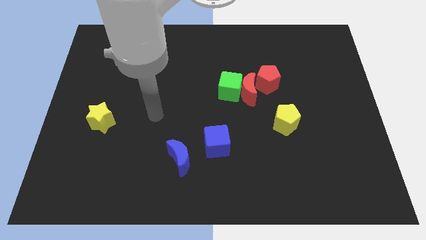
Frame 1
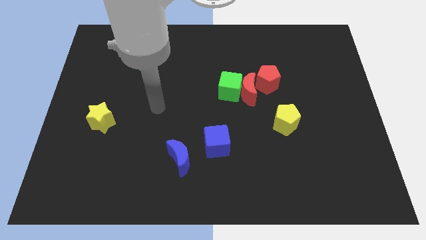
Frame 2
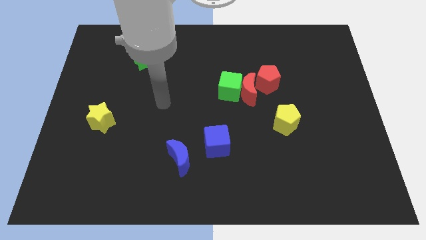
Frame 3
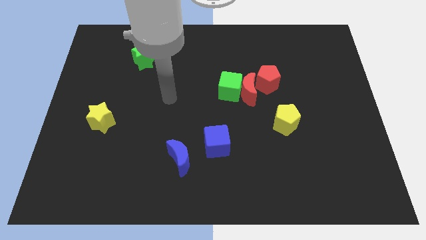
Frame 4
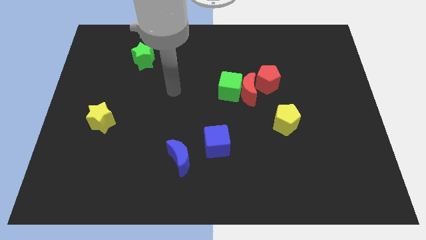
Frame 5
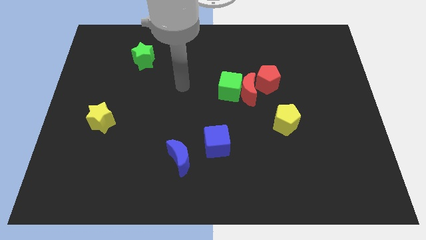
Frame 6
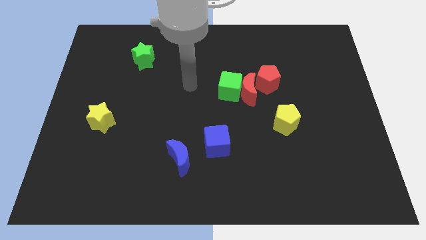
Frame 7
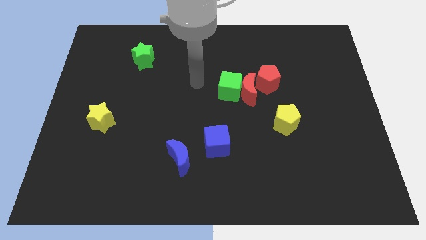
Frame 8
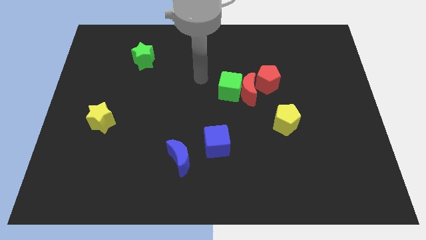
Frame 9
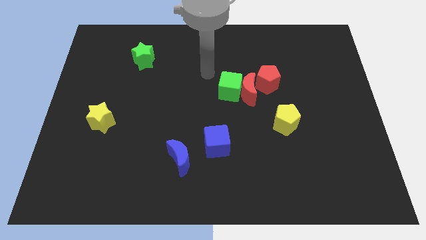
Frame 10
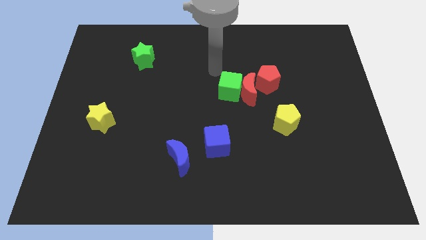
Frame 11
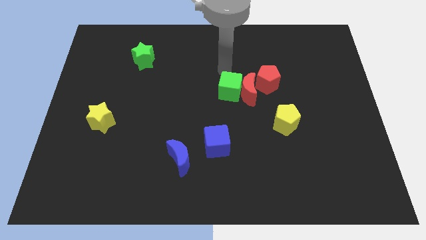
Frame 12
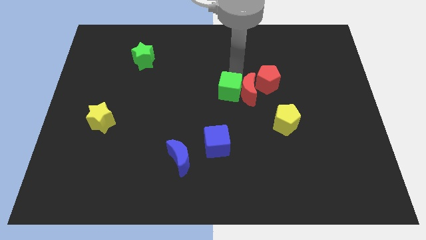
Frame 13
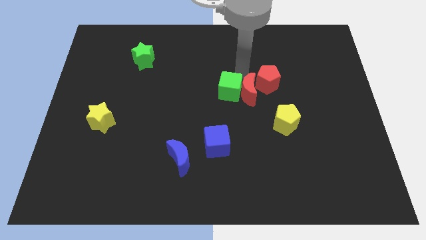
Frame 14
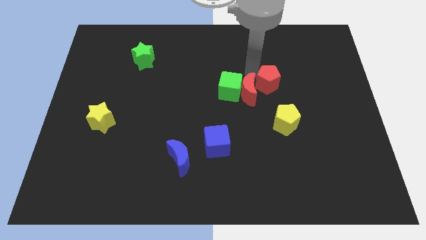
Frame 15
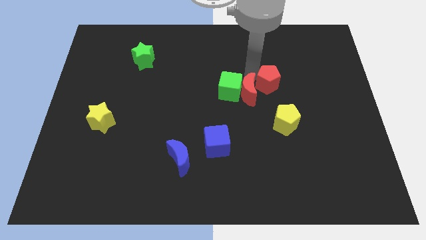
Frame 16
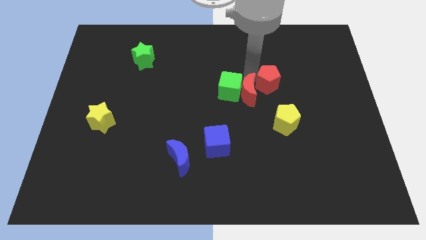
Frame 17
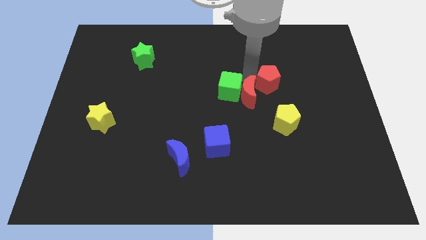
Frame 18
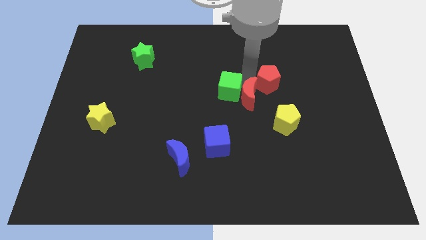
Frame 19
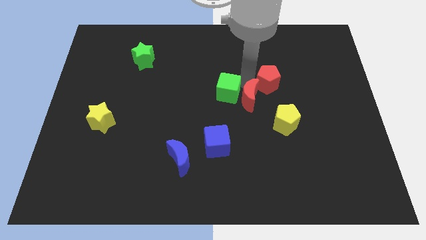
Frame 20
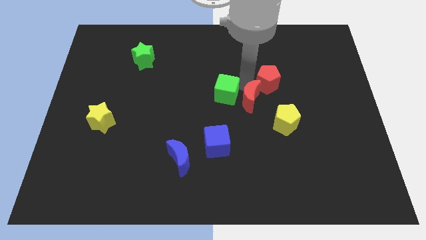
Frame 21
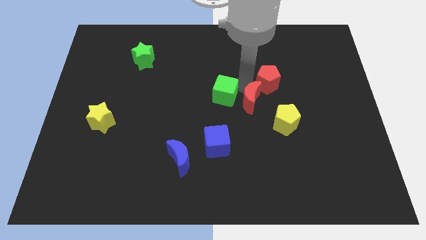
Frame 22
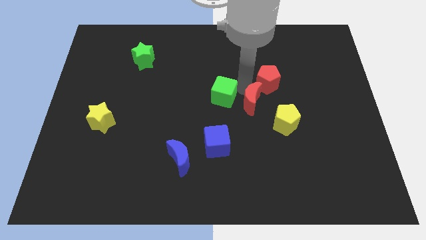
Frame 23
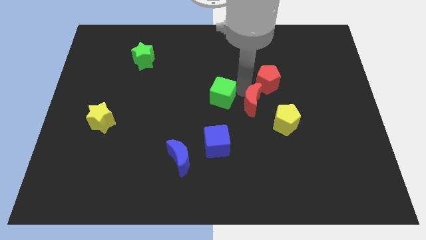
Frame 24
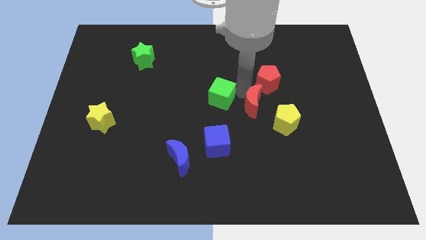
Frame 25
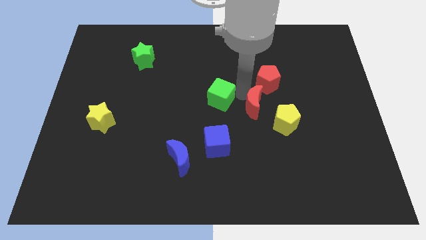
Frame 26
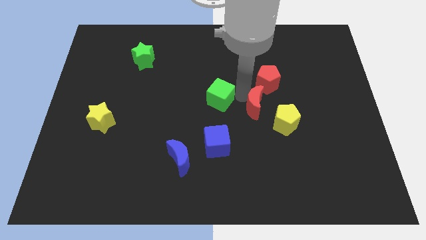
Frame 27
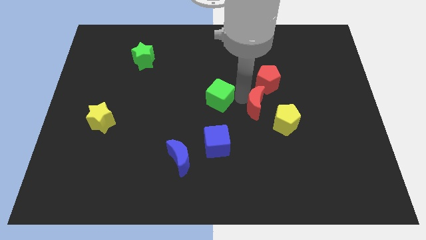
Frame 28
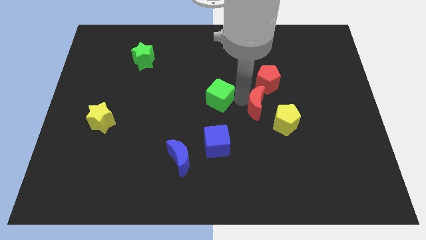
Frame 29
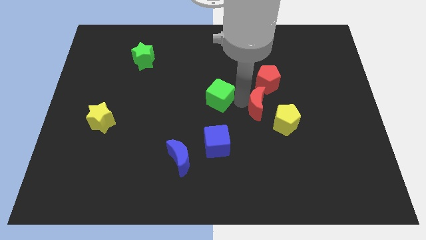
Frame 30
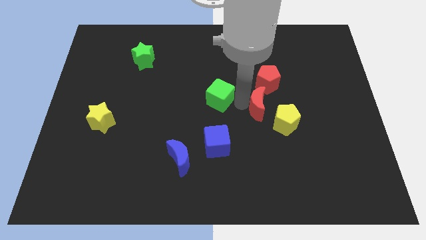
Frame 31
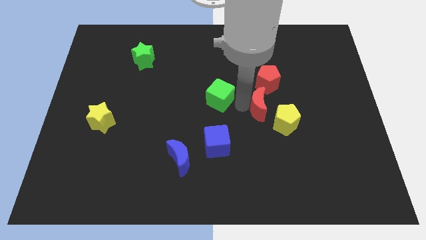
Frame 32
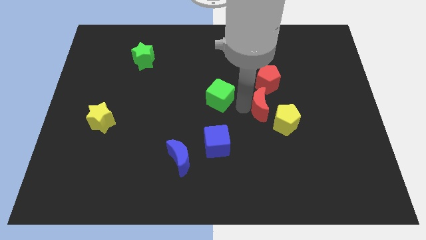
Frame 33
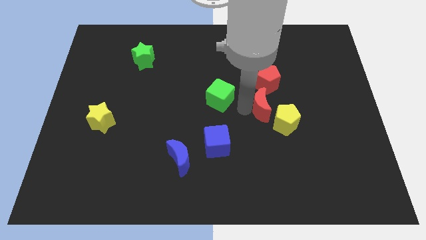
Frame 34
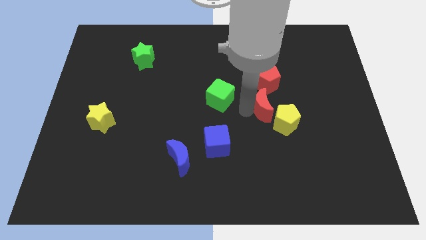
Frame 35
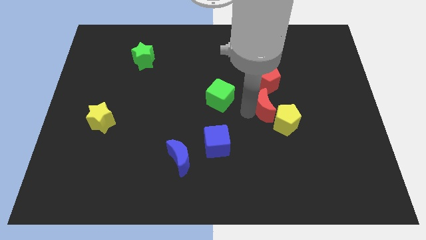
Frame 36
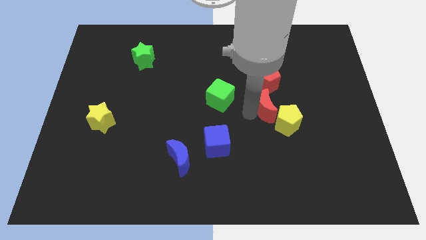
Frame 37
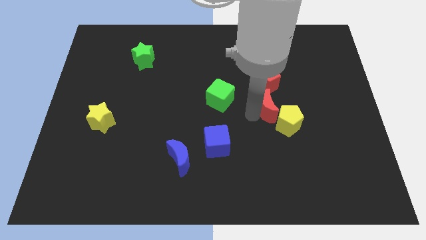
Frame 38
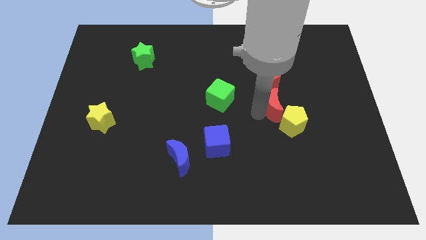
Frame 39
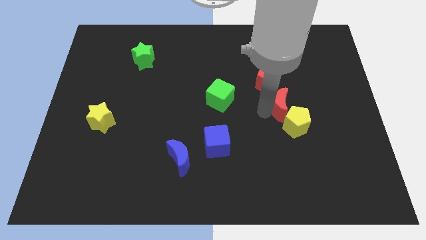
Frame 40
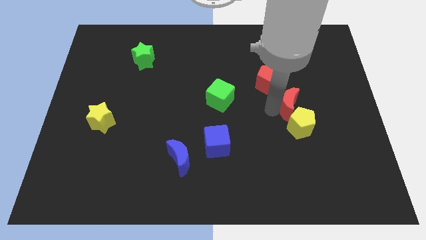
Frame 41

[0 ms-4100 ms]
move the red moon away from the green cube and red pentagon

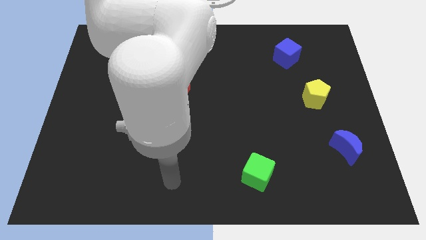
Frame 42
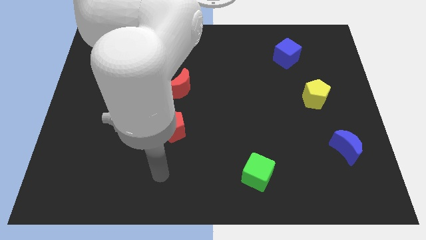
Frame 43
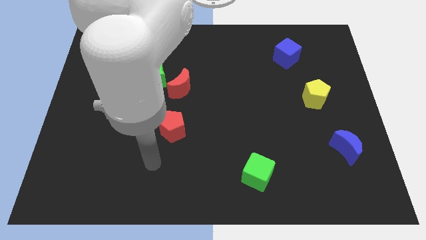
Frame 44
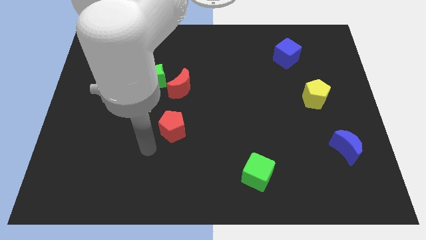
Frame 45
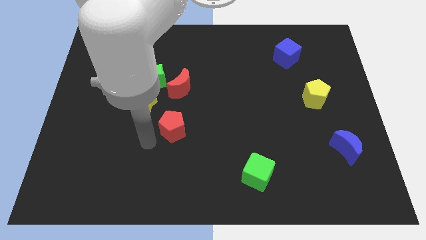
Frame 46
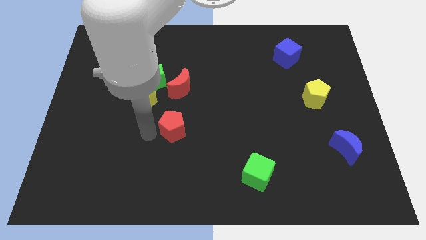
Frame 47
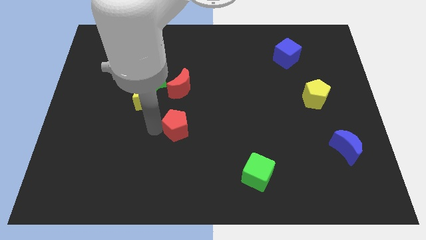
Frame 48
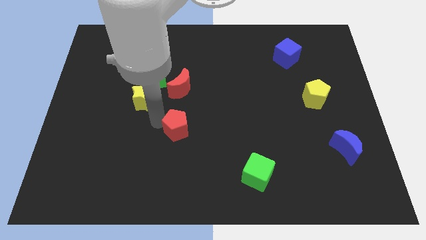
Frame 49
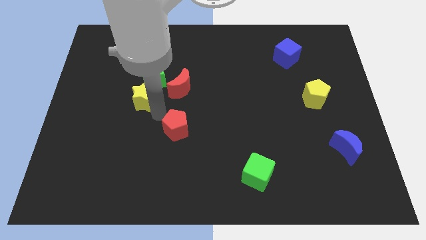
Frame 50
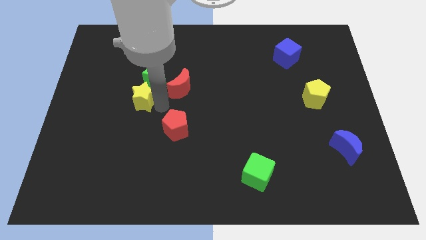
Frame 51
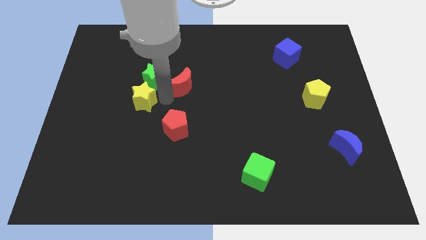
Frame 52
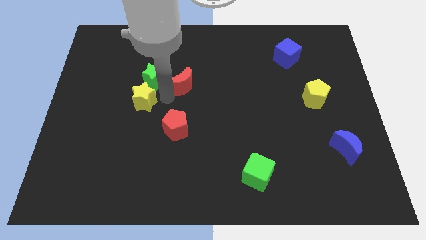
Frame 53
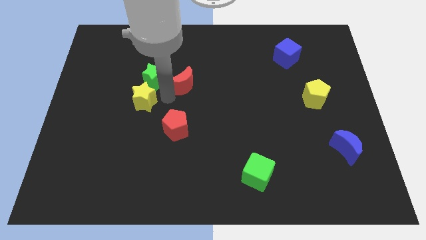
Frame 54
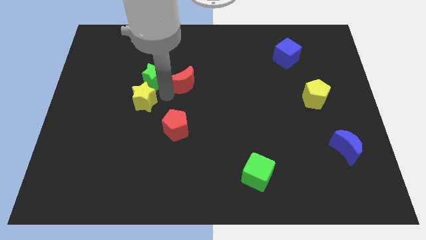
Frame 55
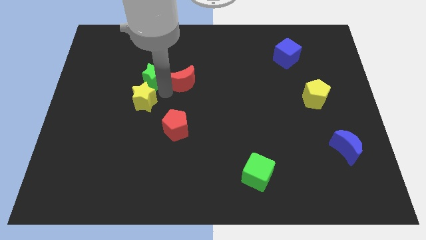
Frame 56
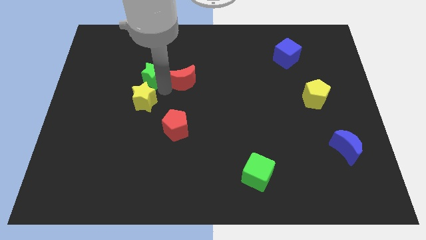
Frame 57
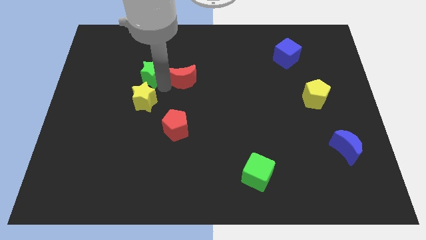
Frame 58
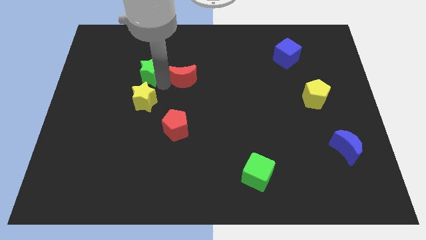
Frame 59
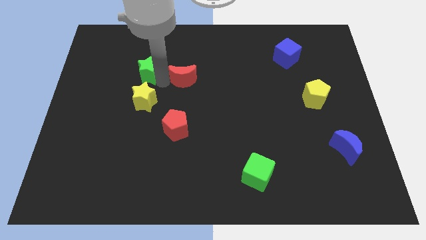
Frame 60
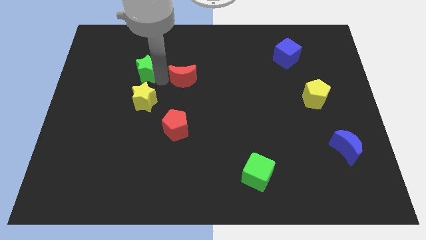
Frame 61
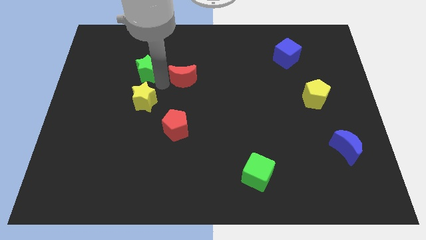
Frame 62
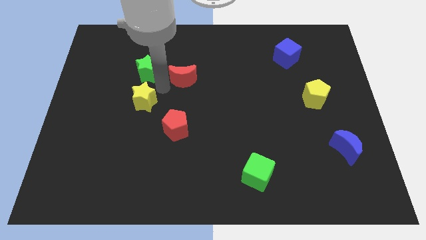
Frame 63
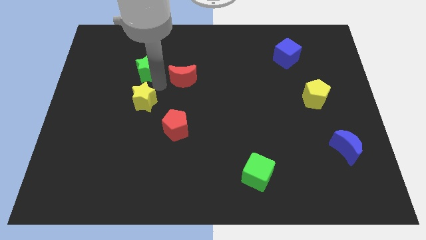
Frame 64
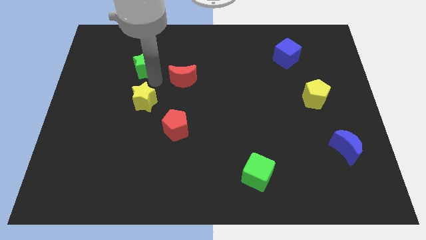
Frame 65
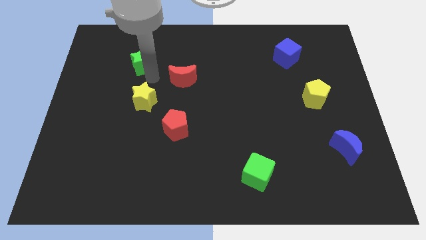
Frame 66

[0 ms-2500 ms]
separate the green star from the yellow star and red moon

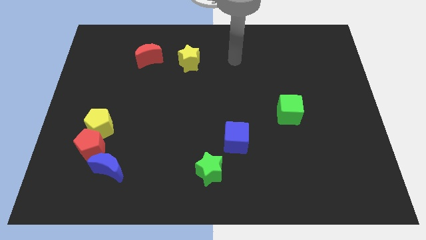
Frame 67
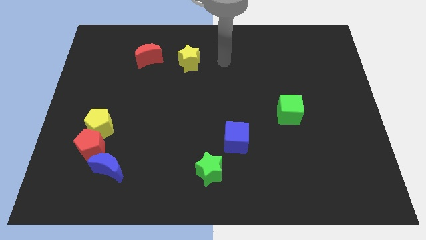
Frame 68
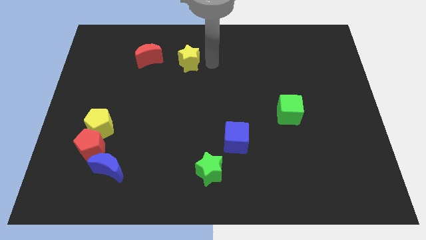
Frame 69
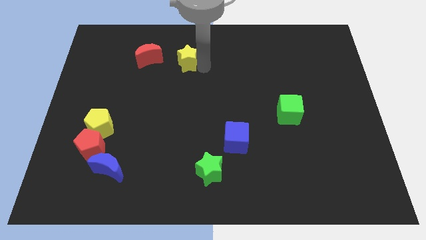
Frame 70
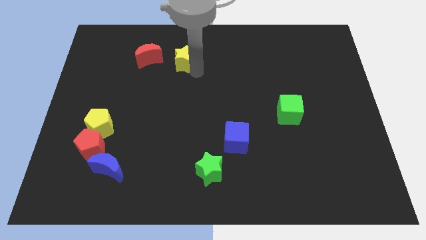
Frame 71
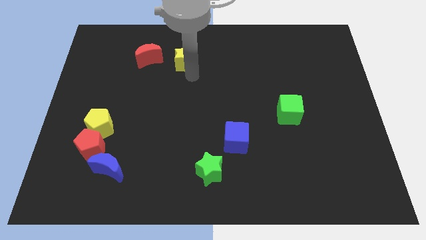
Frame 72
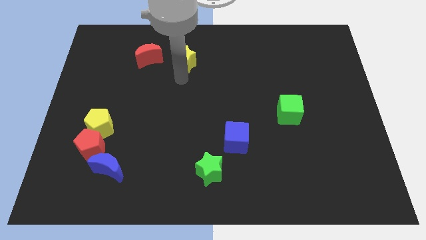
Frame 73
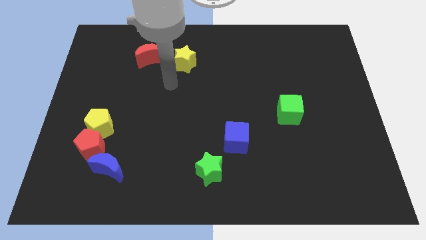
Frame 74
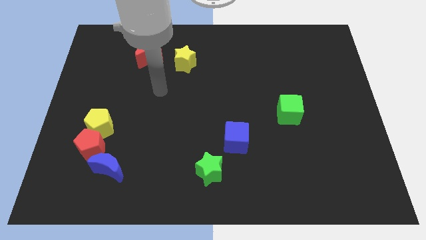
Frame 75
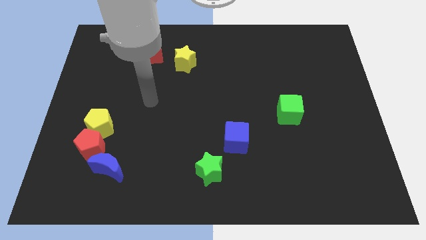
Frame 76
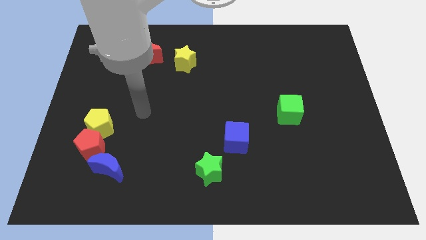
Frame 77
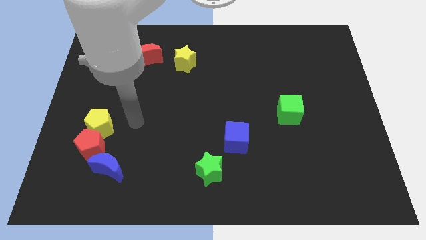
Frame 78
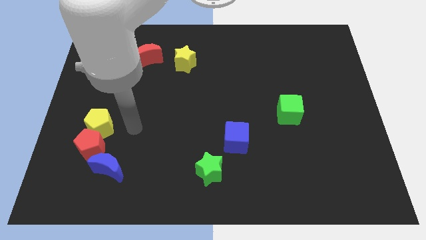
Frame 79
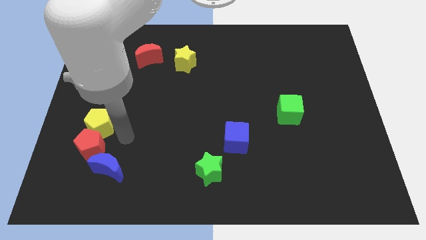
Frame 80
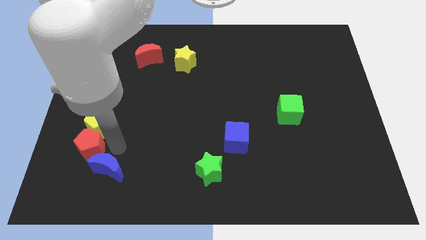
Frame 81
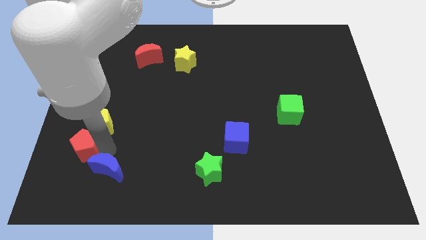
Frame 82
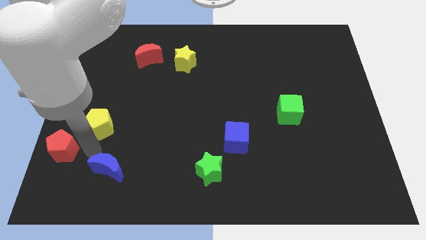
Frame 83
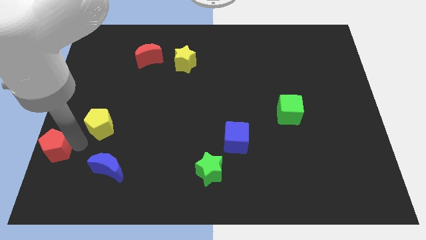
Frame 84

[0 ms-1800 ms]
separate the yellow pentagon from the red pentagon

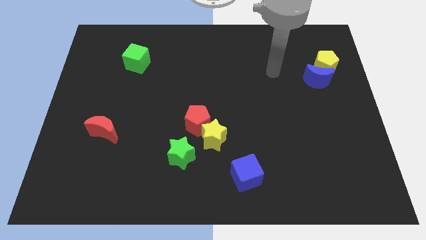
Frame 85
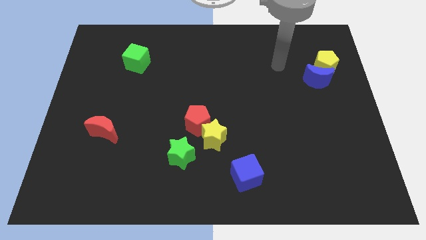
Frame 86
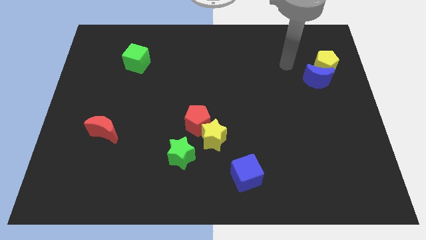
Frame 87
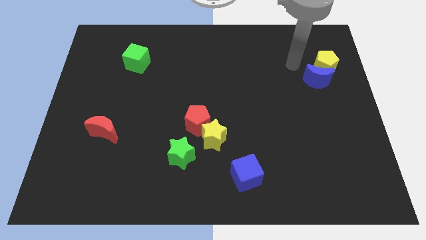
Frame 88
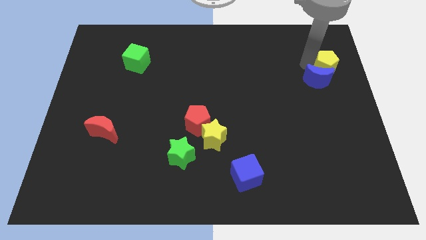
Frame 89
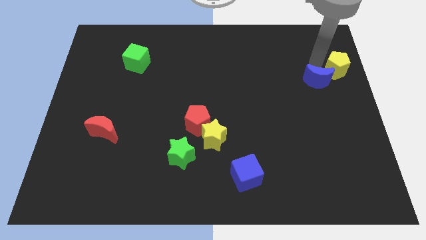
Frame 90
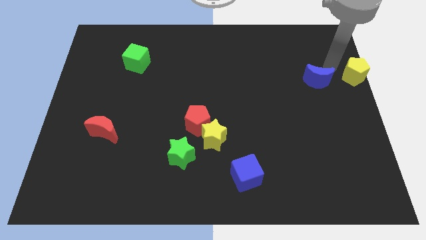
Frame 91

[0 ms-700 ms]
separate the blue moon from the yellow pentagon

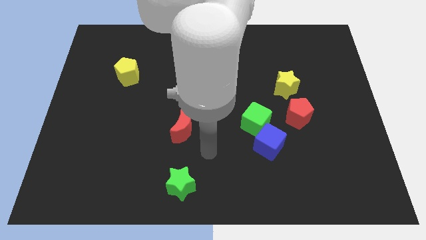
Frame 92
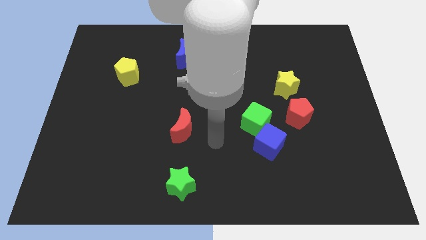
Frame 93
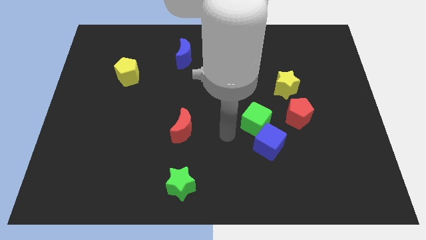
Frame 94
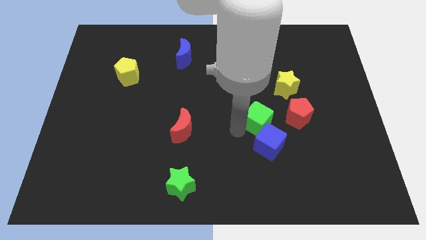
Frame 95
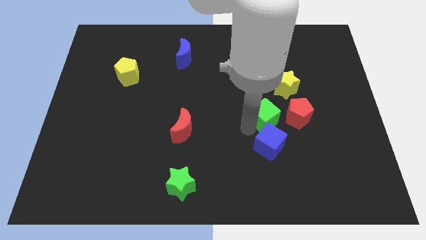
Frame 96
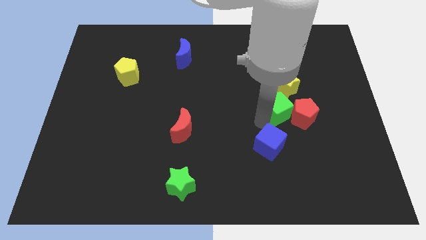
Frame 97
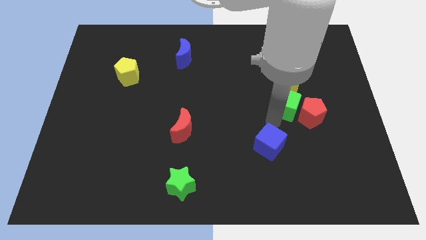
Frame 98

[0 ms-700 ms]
separate the blue cube from the green cube
